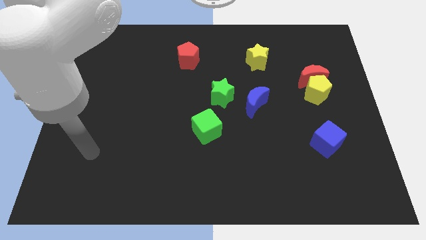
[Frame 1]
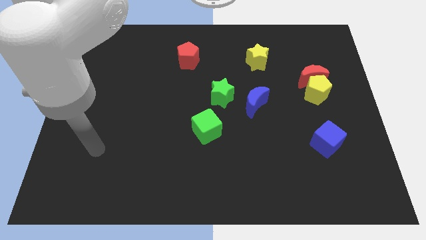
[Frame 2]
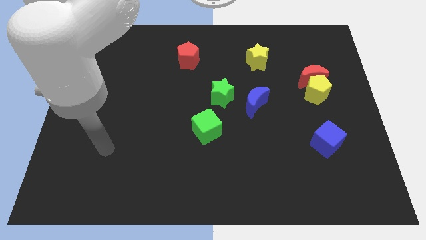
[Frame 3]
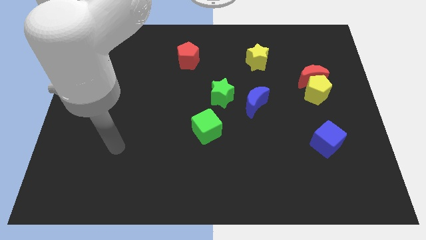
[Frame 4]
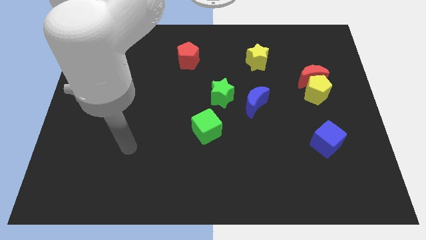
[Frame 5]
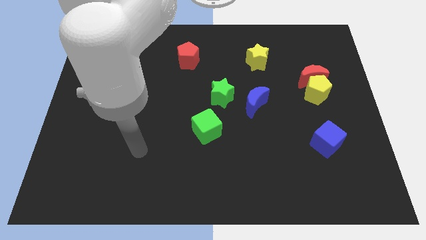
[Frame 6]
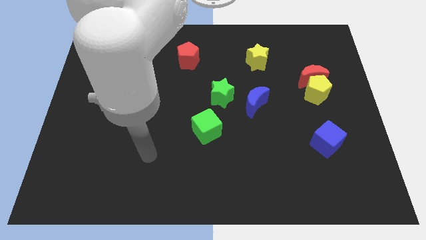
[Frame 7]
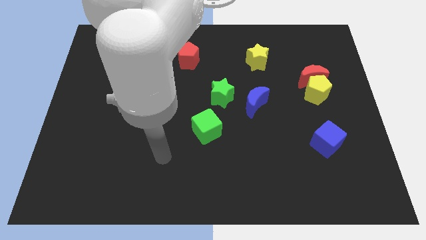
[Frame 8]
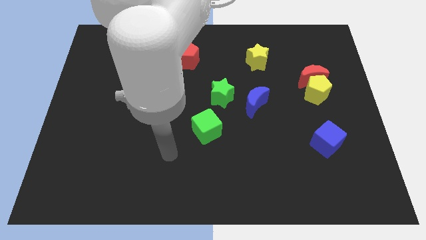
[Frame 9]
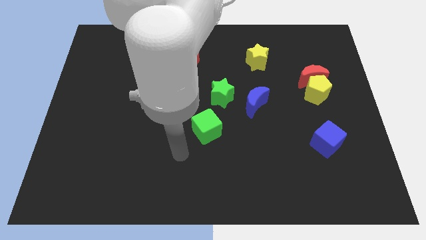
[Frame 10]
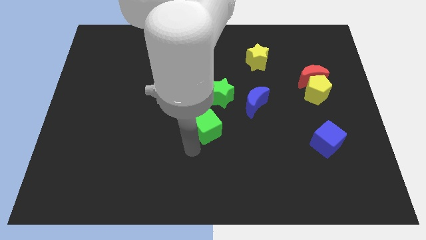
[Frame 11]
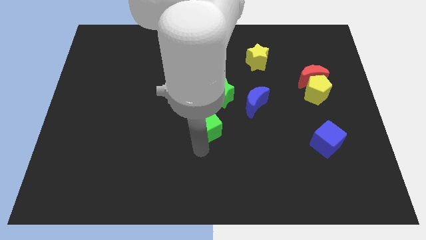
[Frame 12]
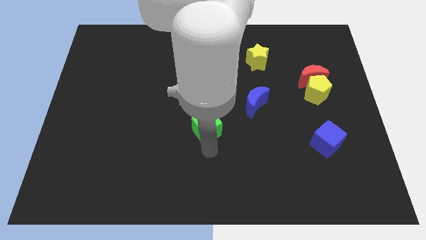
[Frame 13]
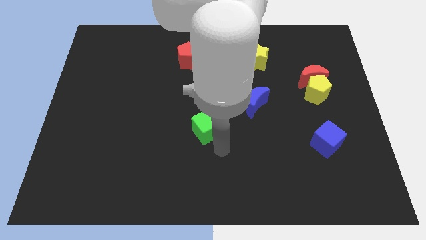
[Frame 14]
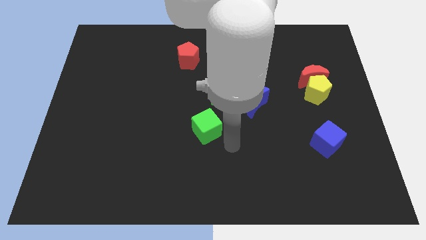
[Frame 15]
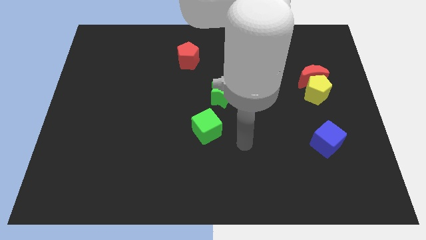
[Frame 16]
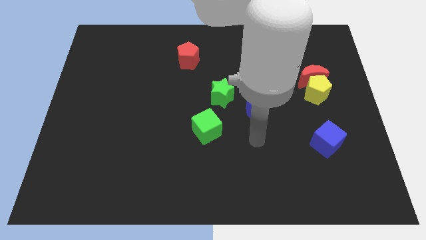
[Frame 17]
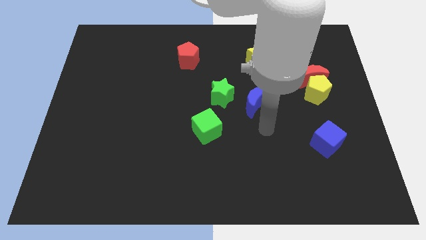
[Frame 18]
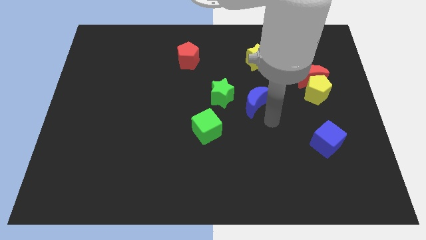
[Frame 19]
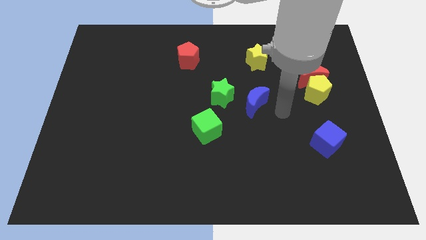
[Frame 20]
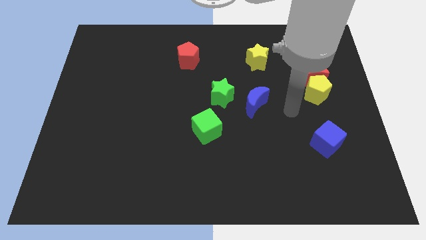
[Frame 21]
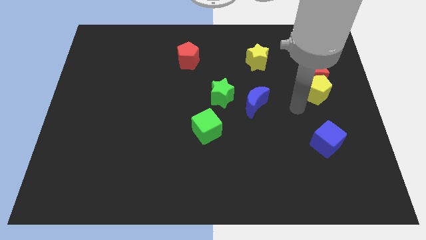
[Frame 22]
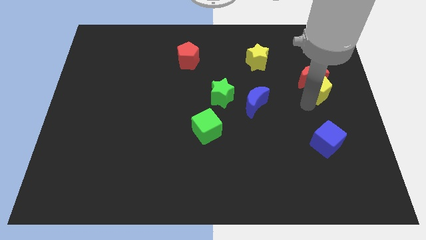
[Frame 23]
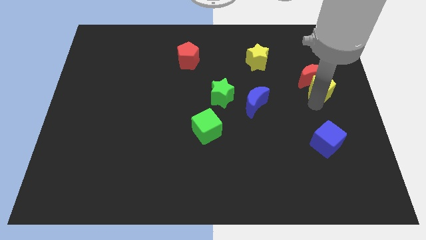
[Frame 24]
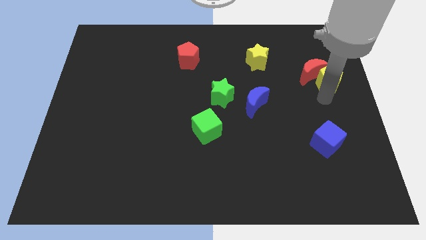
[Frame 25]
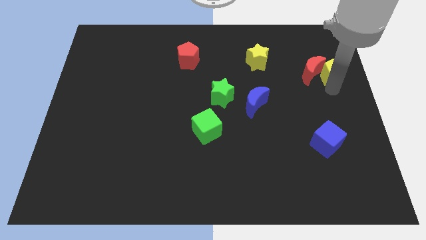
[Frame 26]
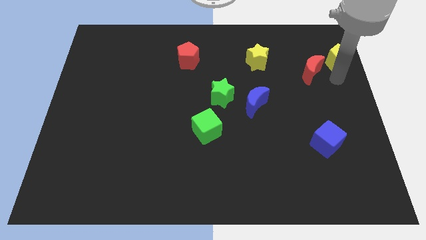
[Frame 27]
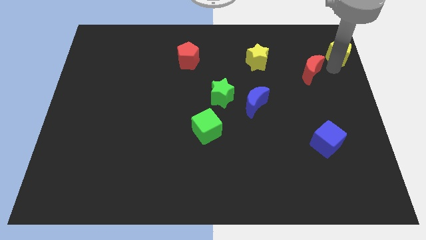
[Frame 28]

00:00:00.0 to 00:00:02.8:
separate the red moon from the yellow pentagon

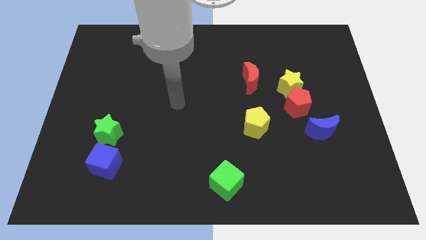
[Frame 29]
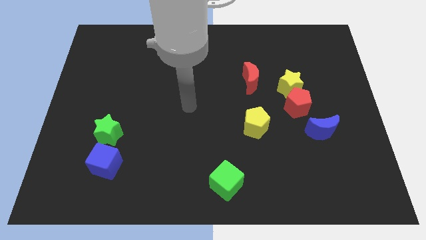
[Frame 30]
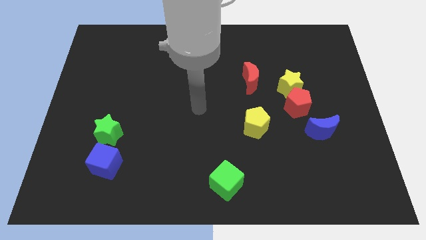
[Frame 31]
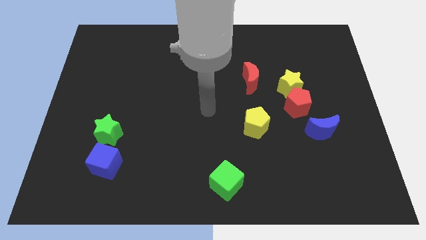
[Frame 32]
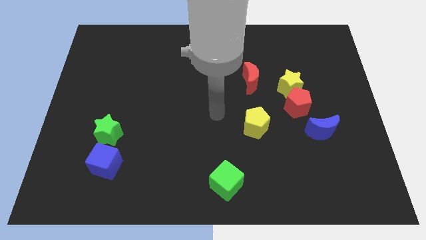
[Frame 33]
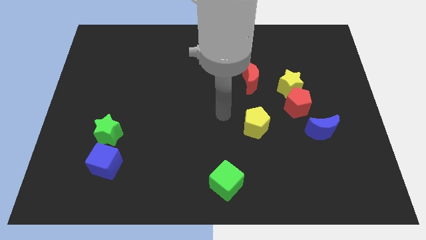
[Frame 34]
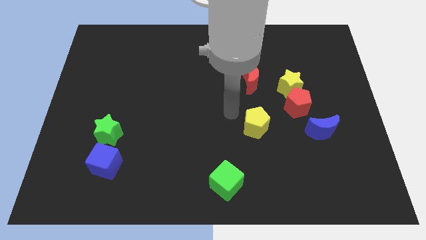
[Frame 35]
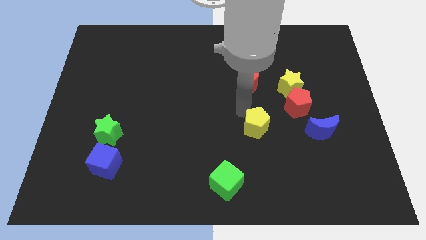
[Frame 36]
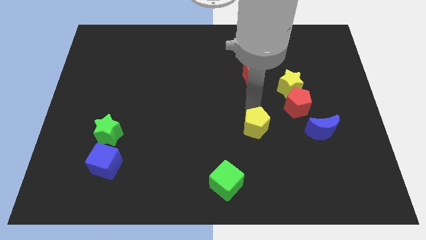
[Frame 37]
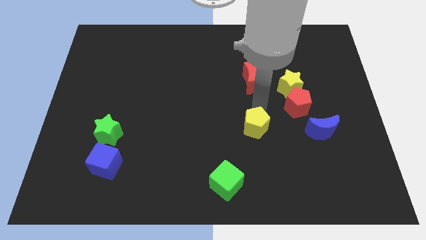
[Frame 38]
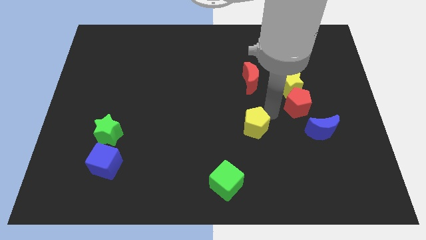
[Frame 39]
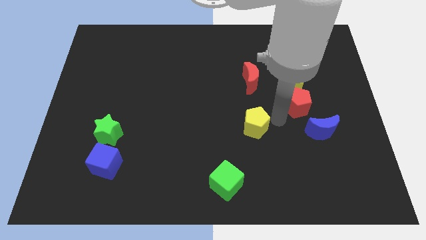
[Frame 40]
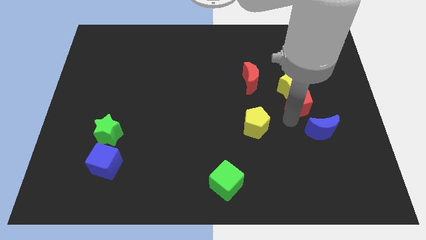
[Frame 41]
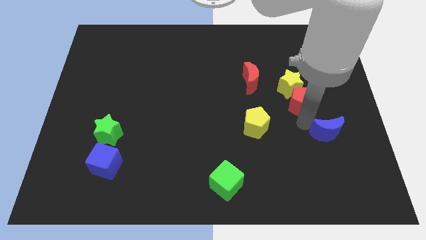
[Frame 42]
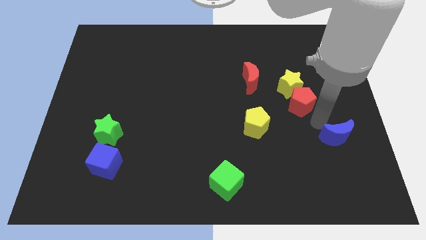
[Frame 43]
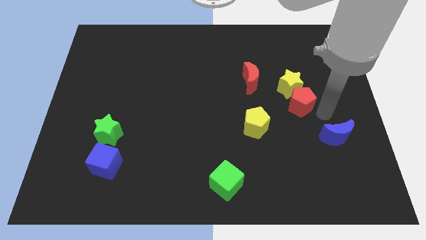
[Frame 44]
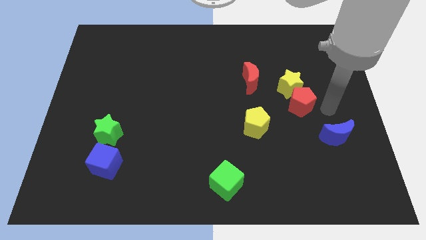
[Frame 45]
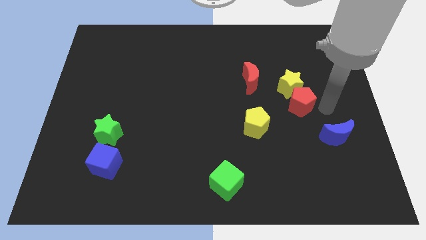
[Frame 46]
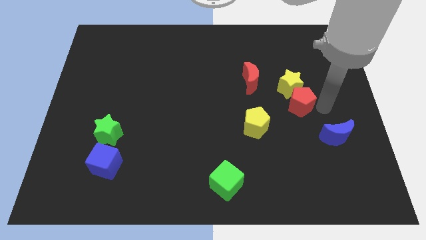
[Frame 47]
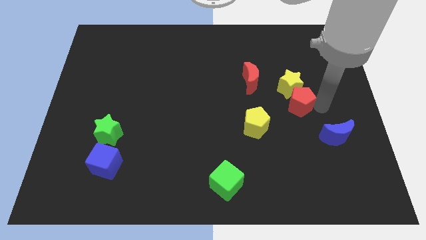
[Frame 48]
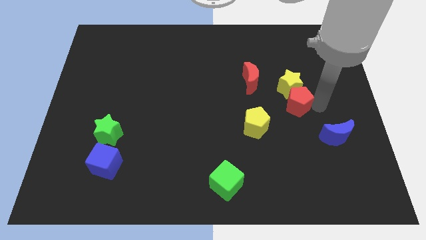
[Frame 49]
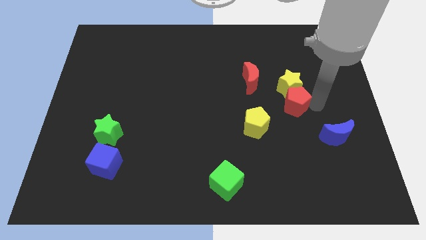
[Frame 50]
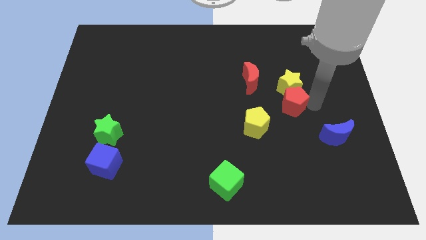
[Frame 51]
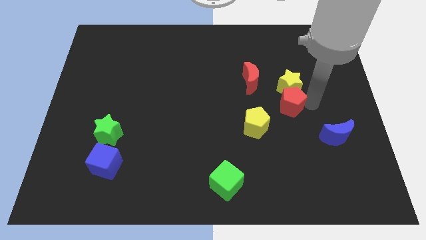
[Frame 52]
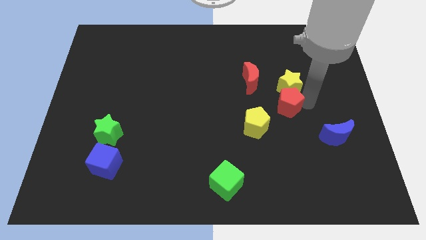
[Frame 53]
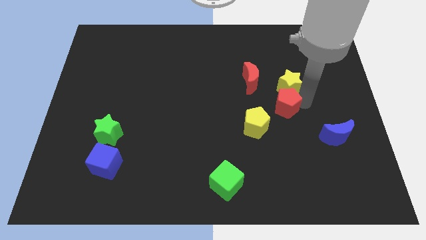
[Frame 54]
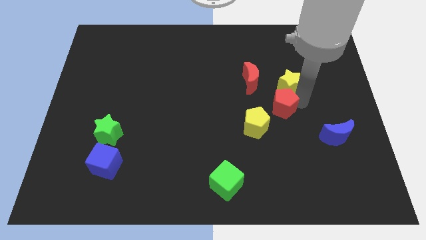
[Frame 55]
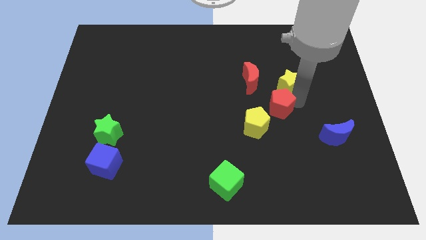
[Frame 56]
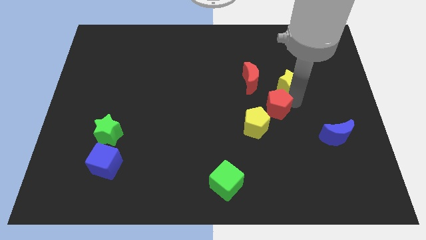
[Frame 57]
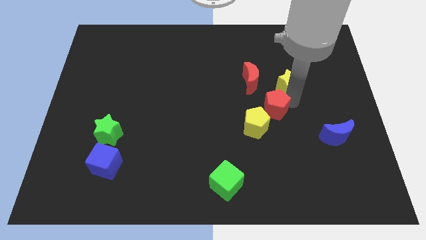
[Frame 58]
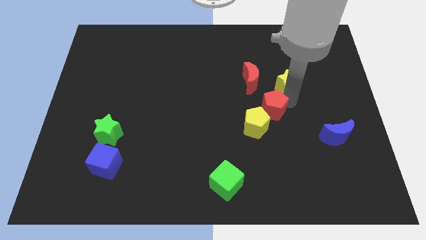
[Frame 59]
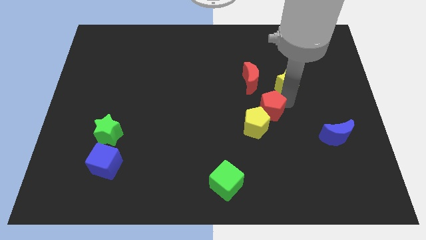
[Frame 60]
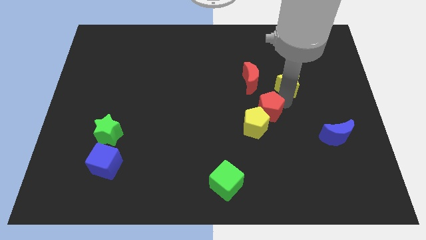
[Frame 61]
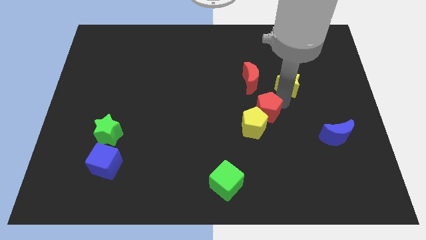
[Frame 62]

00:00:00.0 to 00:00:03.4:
separate the red pentagon from the yellow star and blue moon

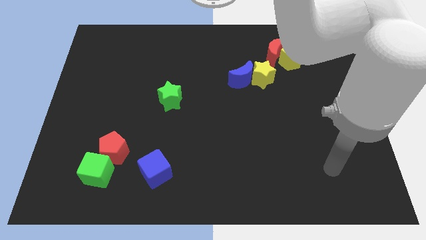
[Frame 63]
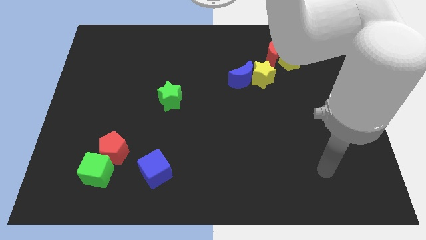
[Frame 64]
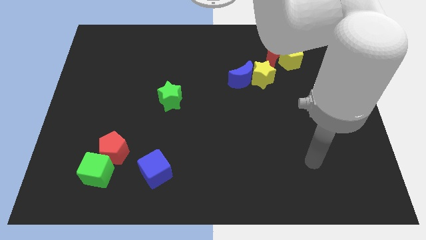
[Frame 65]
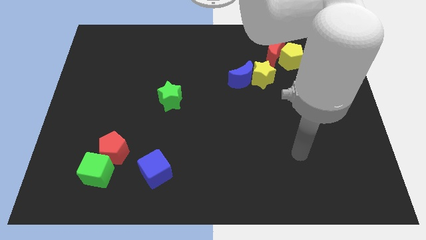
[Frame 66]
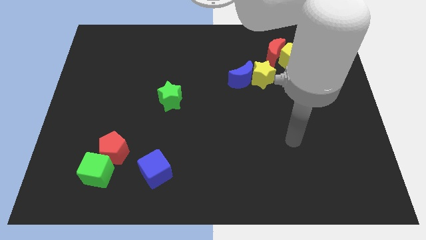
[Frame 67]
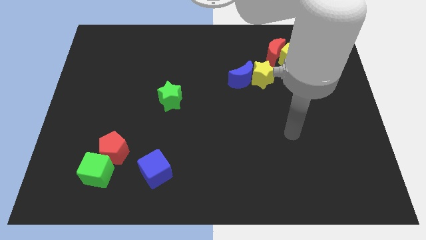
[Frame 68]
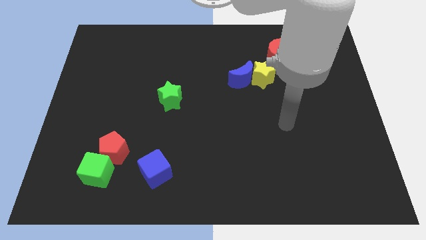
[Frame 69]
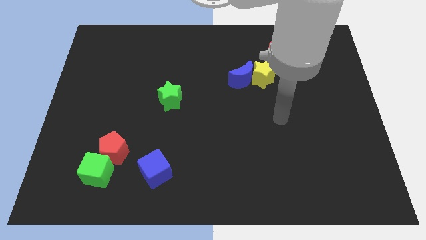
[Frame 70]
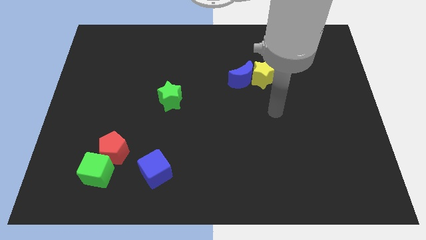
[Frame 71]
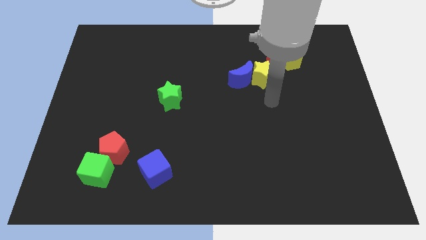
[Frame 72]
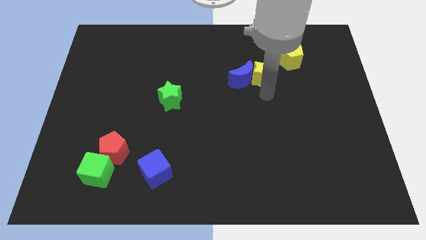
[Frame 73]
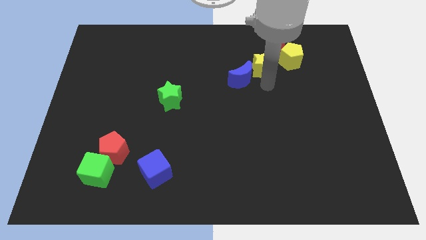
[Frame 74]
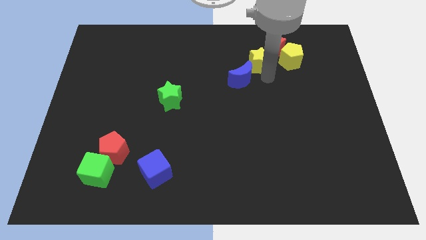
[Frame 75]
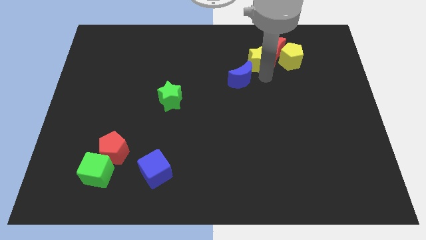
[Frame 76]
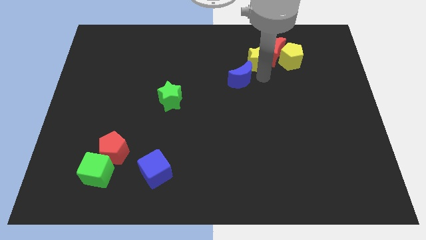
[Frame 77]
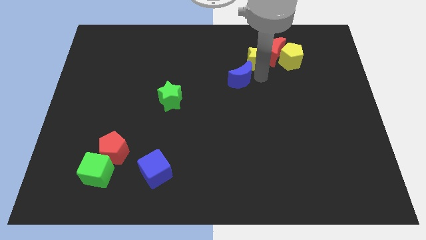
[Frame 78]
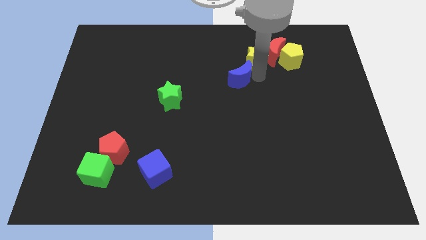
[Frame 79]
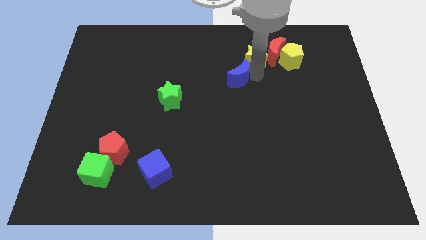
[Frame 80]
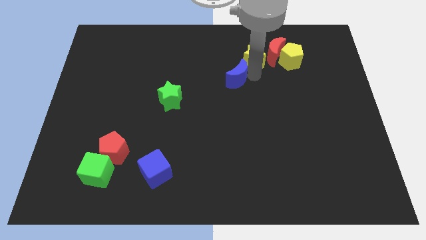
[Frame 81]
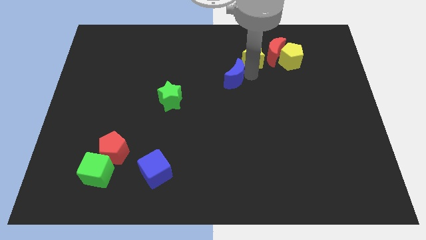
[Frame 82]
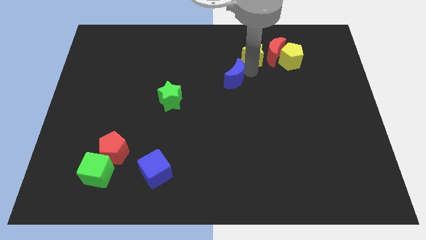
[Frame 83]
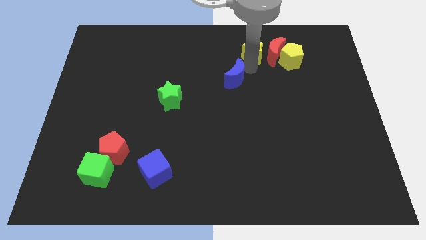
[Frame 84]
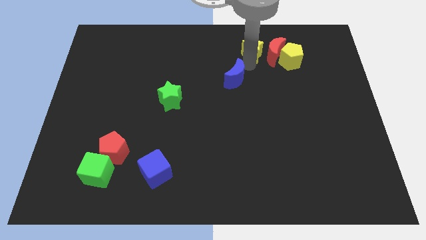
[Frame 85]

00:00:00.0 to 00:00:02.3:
move the blue moon away from the yellow star

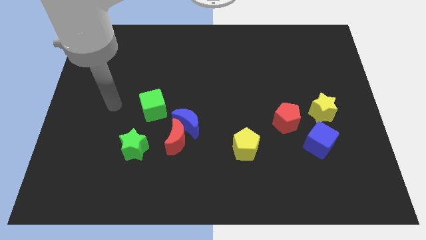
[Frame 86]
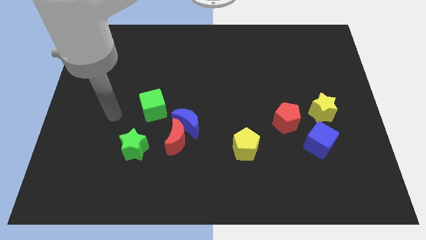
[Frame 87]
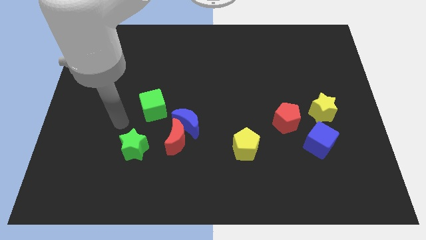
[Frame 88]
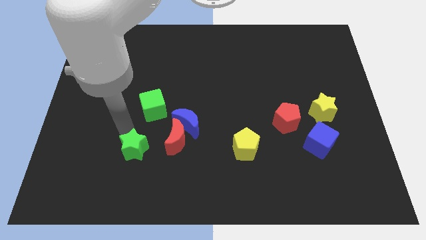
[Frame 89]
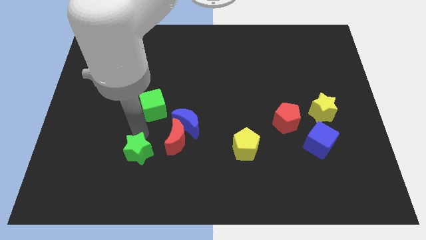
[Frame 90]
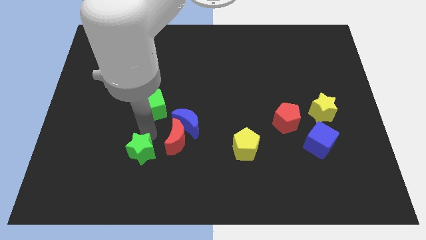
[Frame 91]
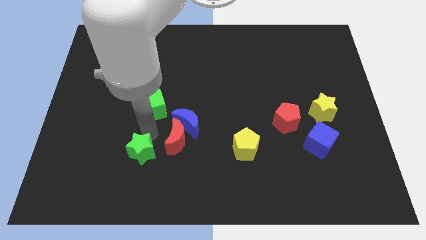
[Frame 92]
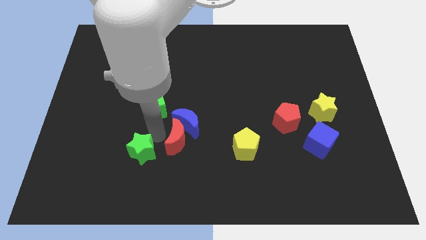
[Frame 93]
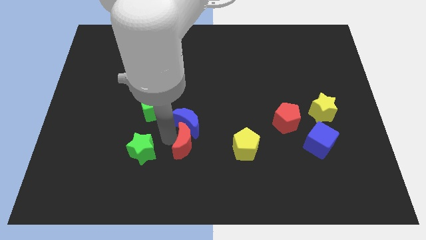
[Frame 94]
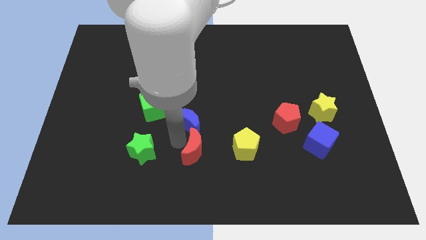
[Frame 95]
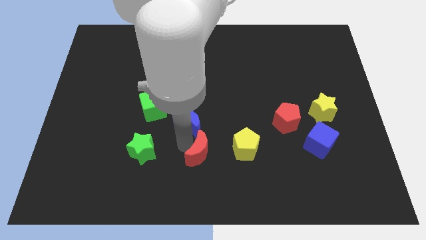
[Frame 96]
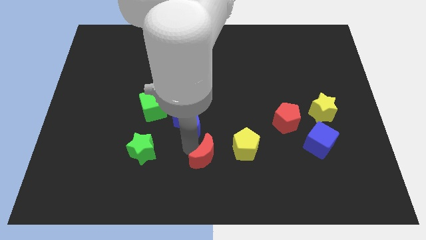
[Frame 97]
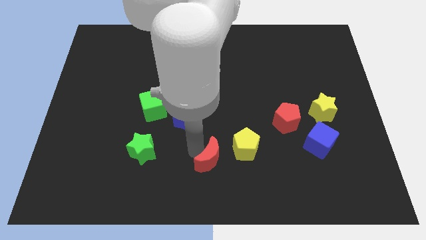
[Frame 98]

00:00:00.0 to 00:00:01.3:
separate the red moon from the blue moon and green star
